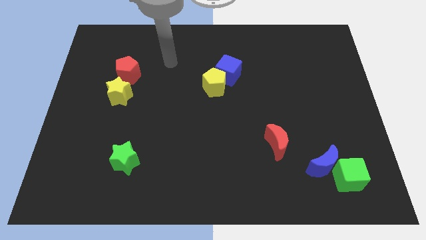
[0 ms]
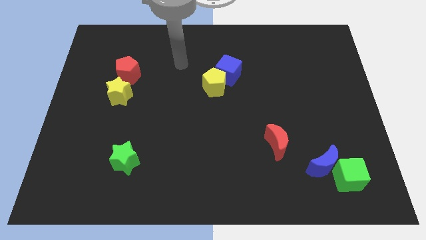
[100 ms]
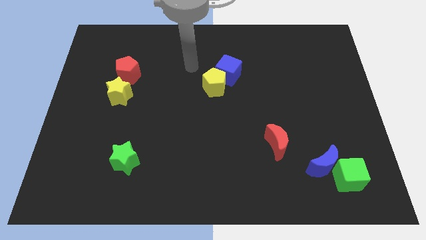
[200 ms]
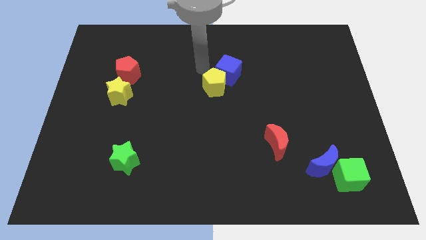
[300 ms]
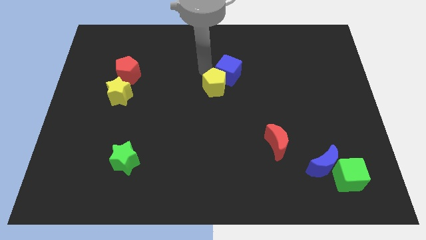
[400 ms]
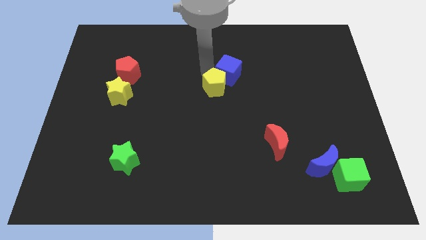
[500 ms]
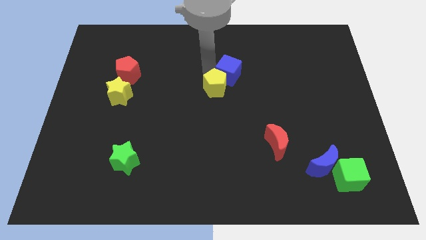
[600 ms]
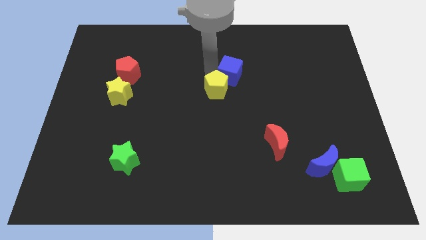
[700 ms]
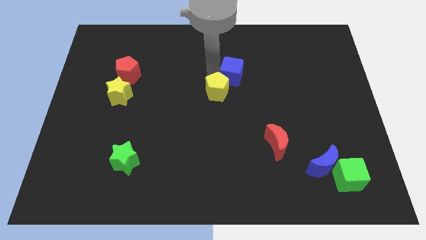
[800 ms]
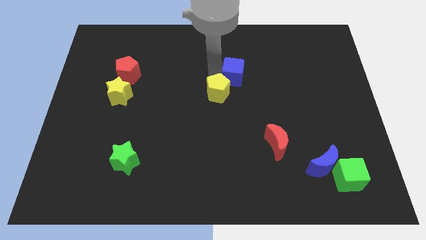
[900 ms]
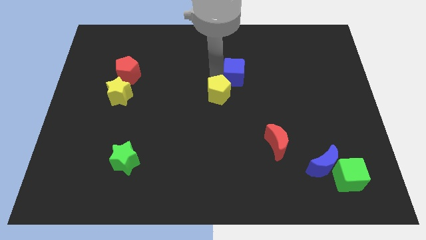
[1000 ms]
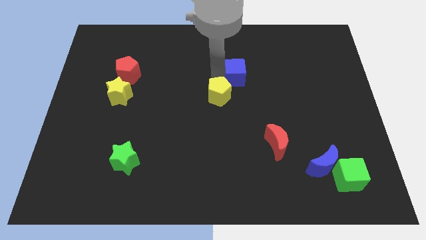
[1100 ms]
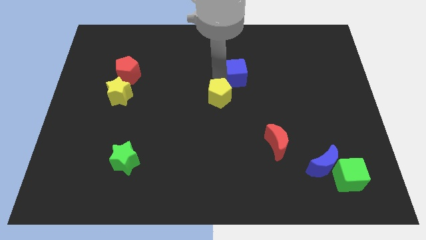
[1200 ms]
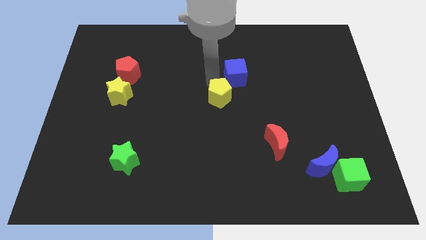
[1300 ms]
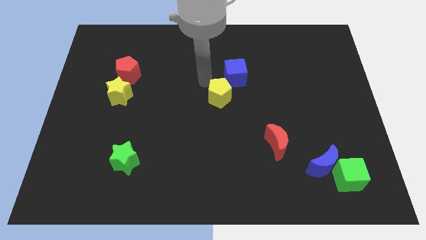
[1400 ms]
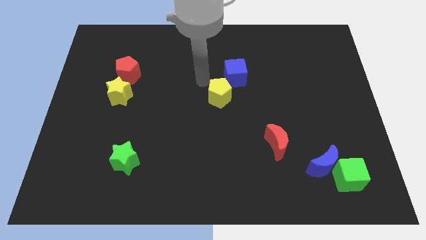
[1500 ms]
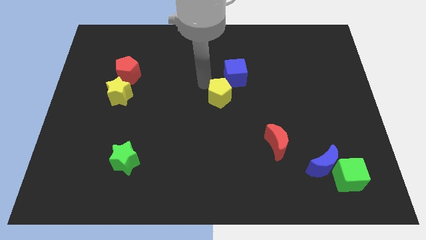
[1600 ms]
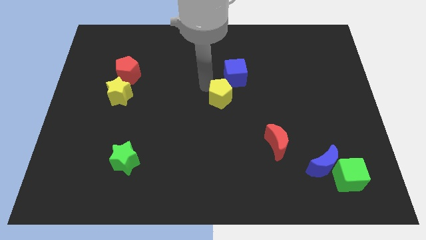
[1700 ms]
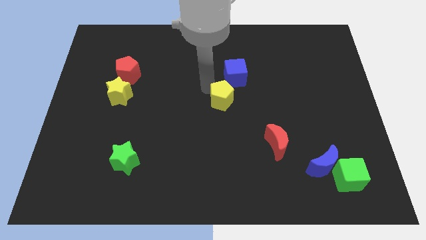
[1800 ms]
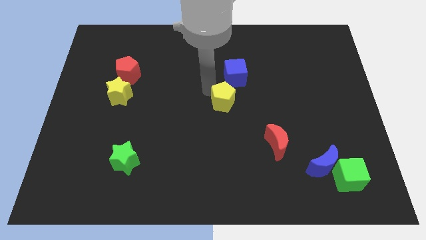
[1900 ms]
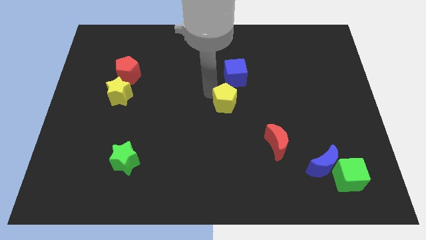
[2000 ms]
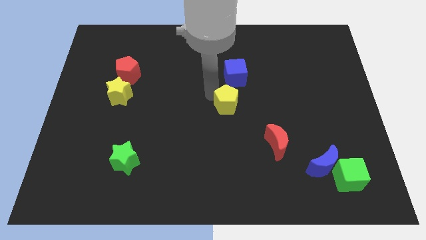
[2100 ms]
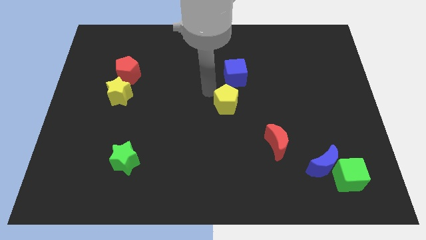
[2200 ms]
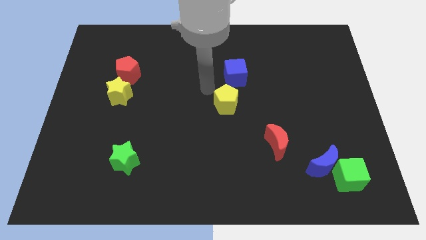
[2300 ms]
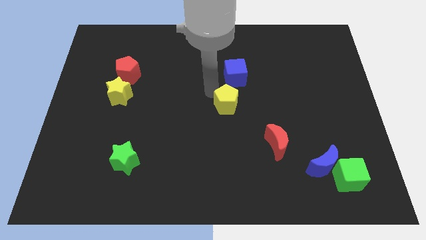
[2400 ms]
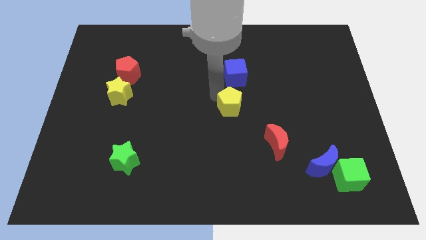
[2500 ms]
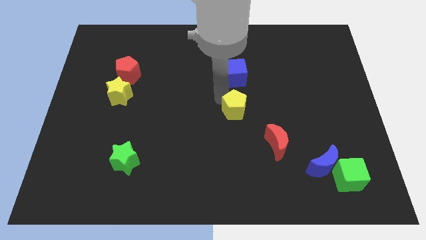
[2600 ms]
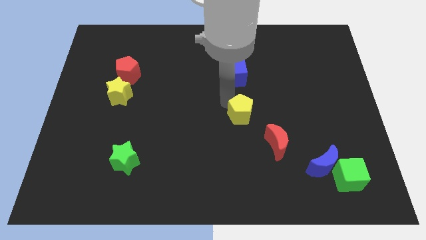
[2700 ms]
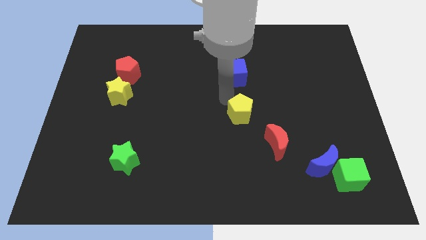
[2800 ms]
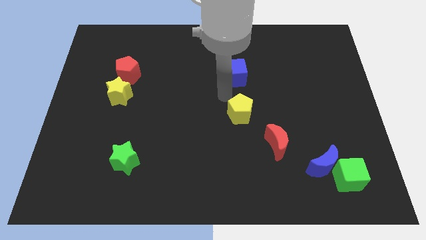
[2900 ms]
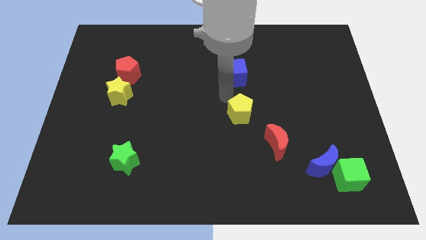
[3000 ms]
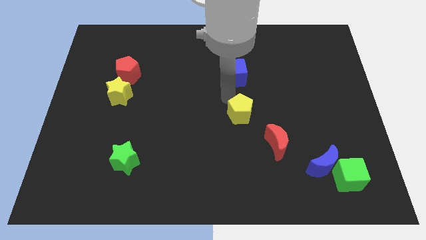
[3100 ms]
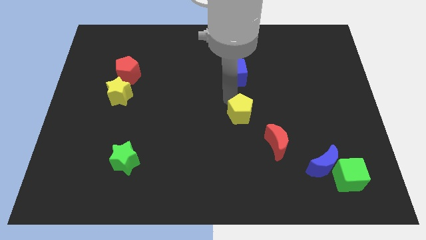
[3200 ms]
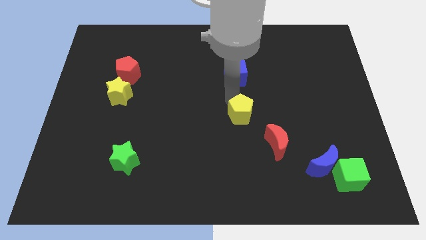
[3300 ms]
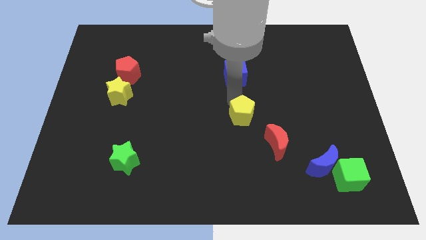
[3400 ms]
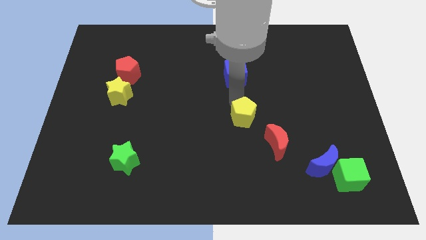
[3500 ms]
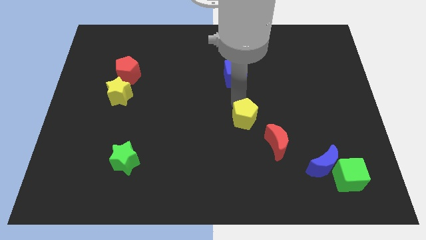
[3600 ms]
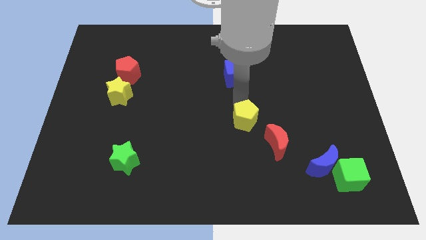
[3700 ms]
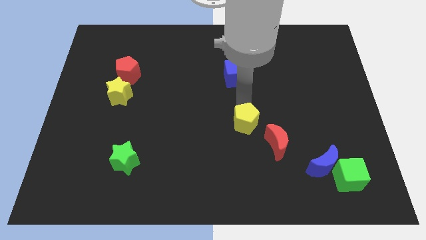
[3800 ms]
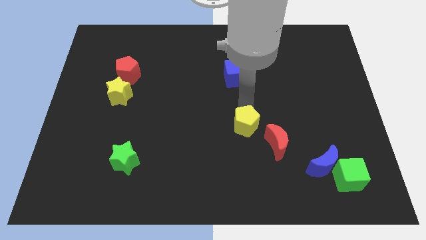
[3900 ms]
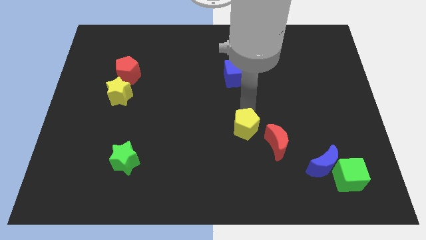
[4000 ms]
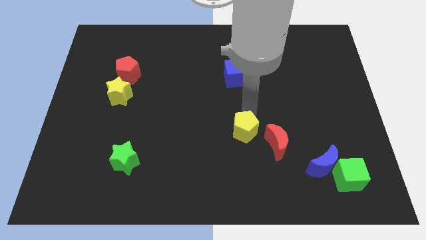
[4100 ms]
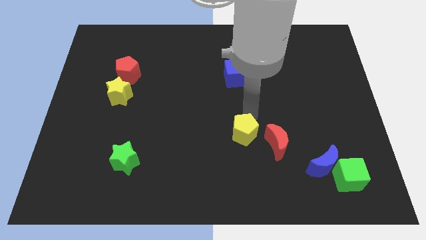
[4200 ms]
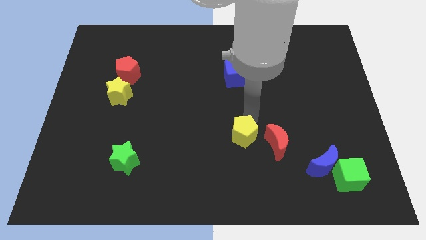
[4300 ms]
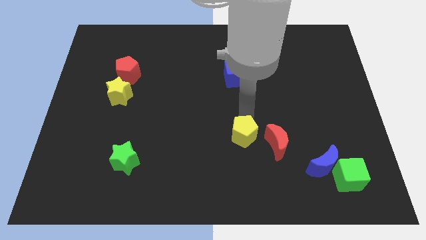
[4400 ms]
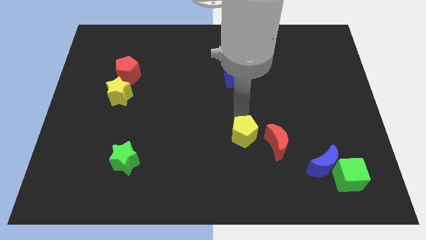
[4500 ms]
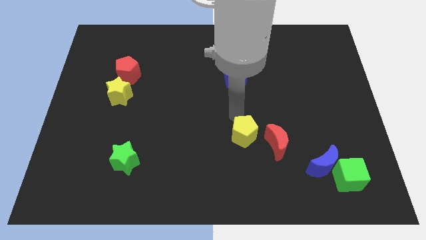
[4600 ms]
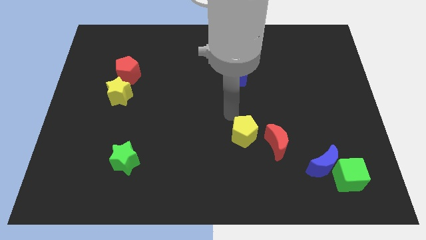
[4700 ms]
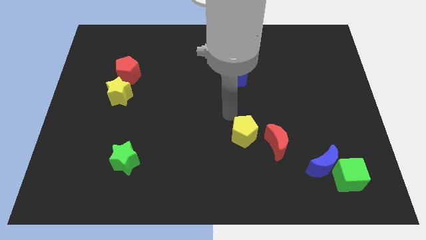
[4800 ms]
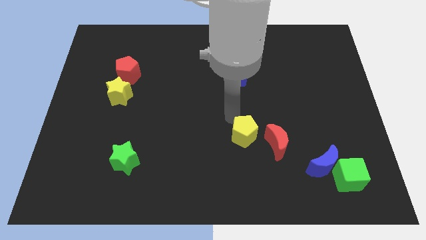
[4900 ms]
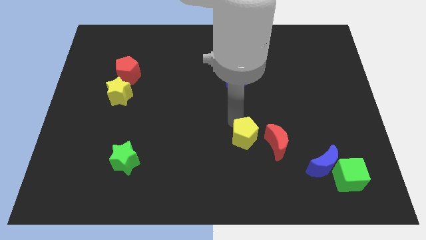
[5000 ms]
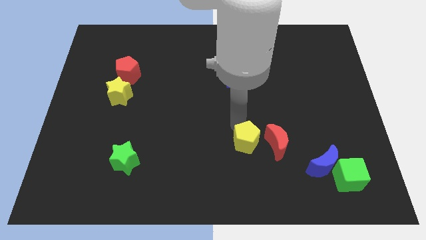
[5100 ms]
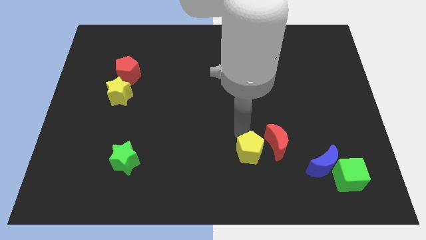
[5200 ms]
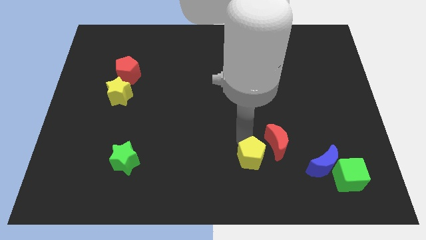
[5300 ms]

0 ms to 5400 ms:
slide the yellow pentagon just left of the blue moon
